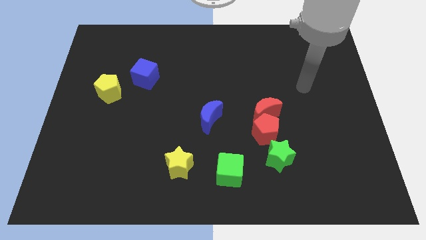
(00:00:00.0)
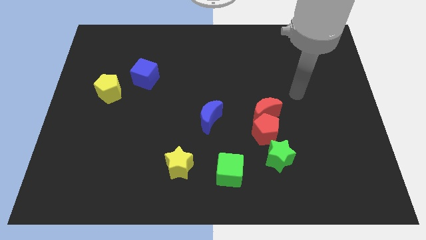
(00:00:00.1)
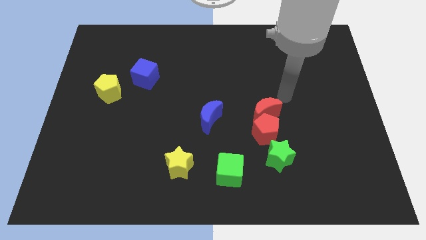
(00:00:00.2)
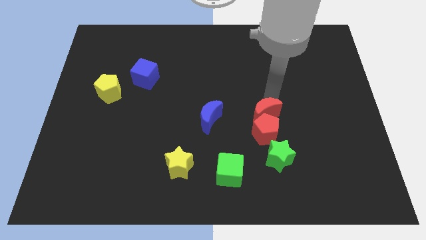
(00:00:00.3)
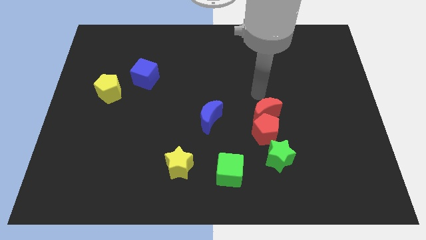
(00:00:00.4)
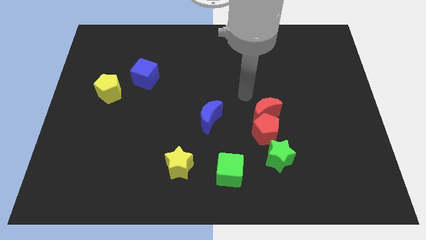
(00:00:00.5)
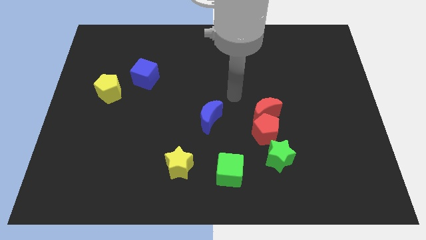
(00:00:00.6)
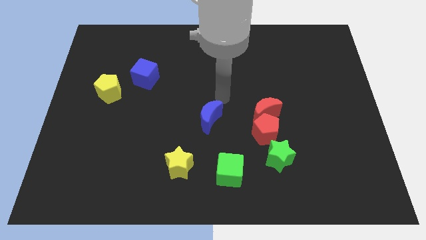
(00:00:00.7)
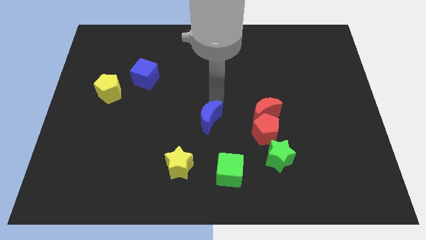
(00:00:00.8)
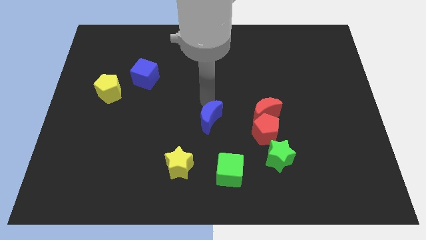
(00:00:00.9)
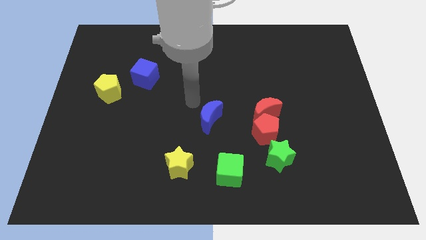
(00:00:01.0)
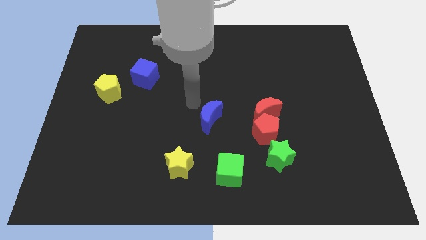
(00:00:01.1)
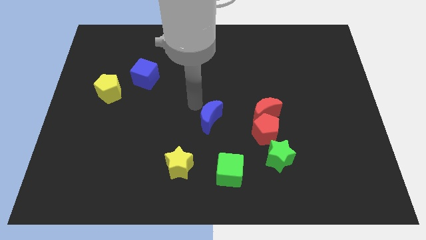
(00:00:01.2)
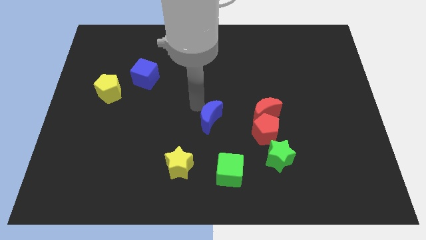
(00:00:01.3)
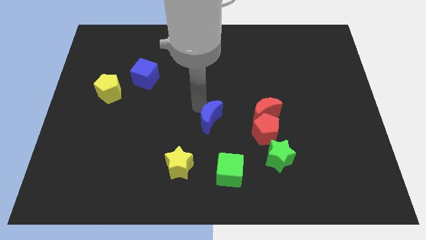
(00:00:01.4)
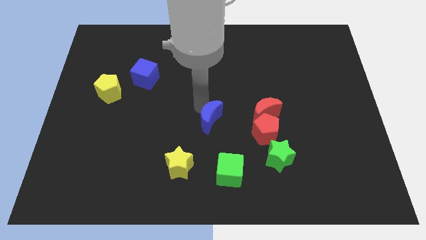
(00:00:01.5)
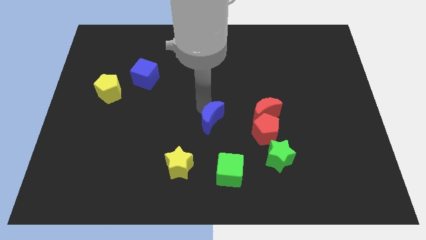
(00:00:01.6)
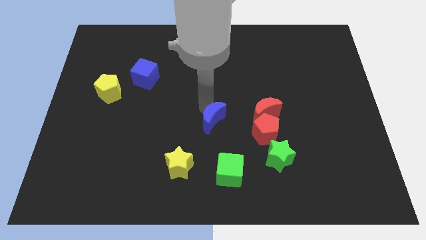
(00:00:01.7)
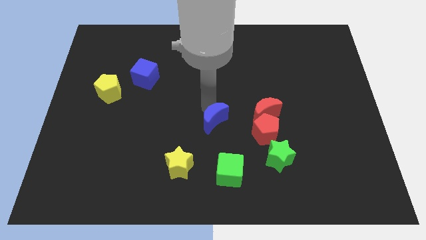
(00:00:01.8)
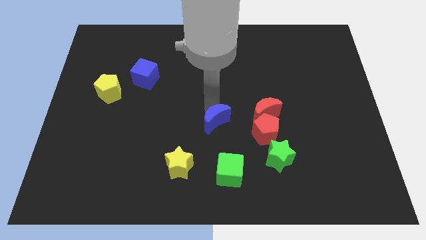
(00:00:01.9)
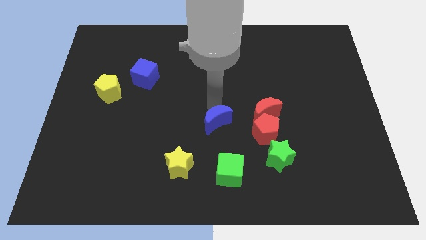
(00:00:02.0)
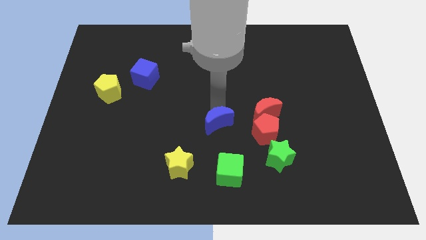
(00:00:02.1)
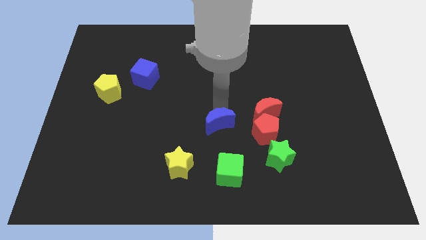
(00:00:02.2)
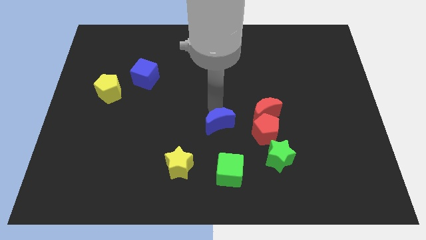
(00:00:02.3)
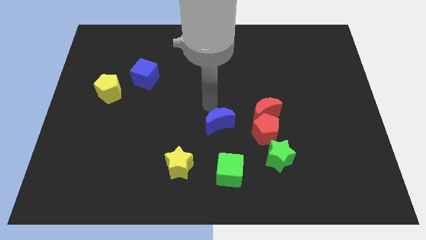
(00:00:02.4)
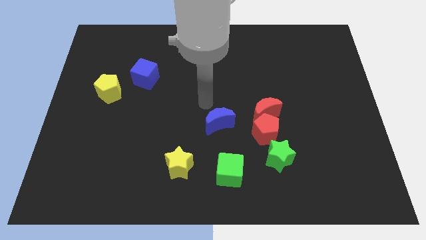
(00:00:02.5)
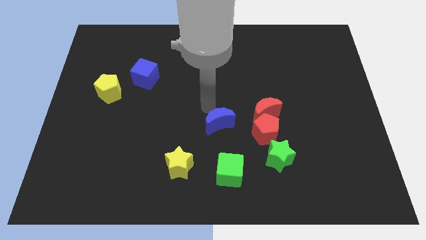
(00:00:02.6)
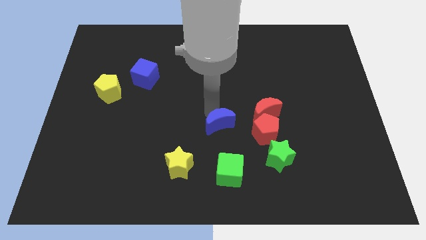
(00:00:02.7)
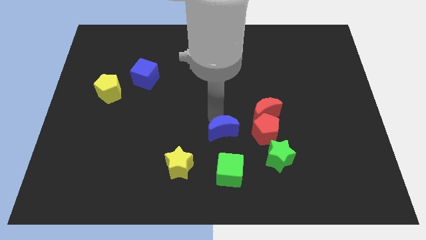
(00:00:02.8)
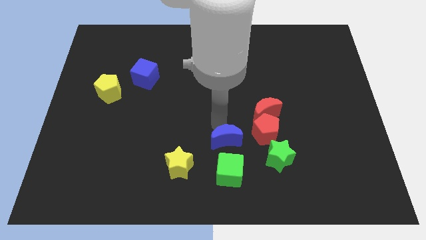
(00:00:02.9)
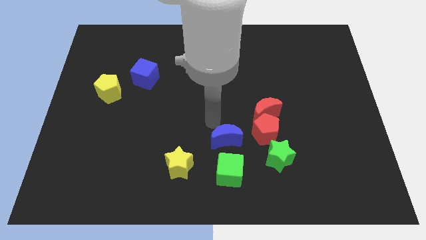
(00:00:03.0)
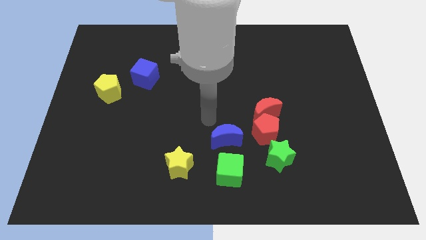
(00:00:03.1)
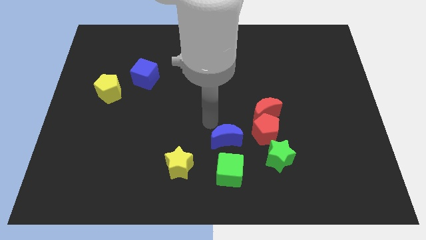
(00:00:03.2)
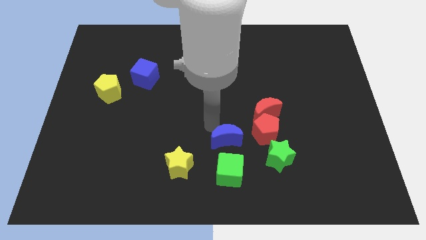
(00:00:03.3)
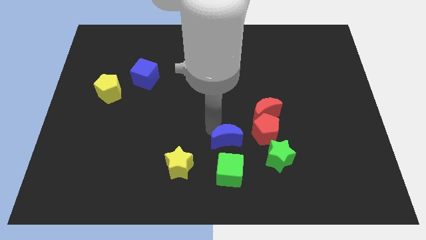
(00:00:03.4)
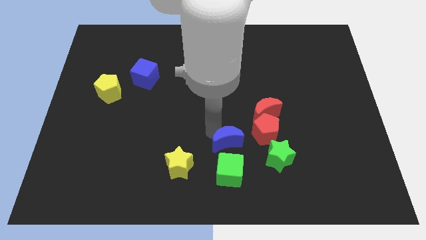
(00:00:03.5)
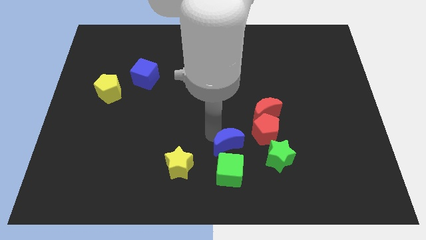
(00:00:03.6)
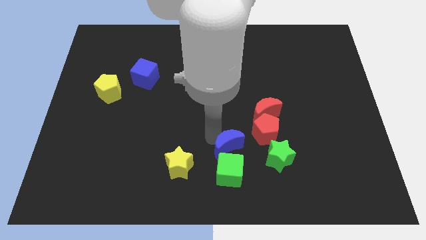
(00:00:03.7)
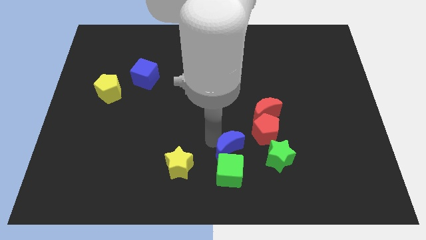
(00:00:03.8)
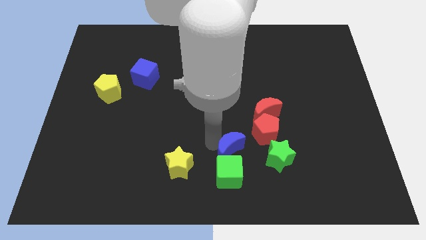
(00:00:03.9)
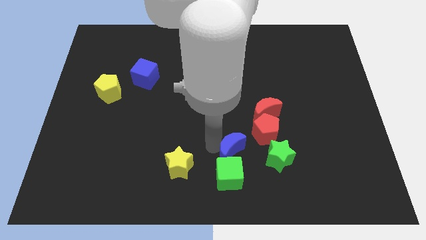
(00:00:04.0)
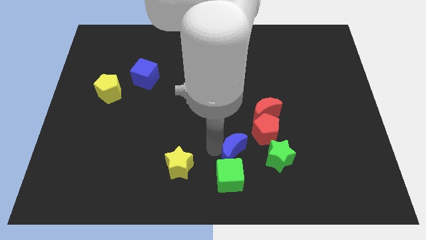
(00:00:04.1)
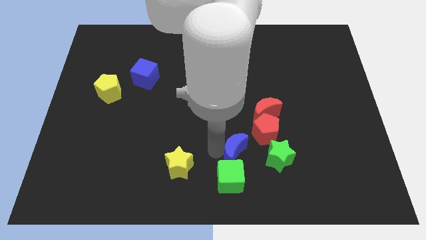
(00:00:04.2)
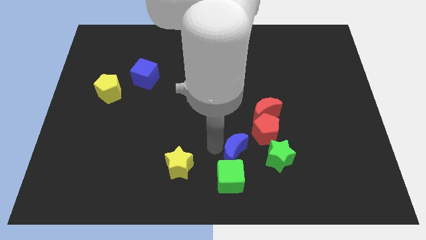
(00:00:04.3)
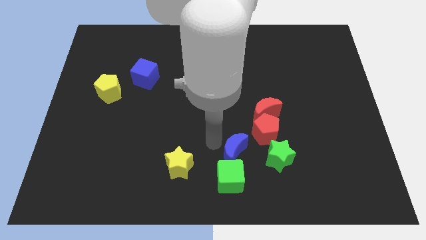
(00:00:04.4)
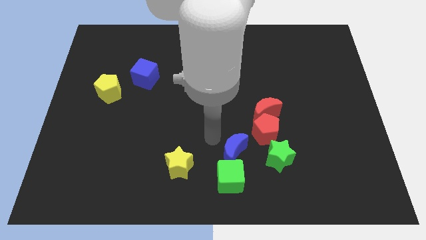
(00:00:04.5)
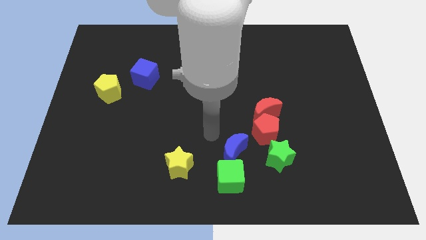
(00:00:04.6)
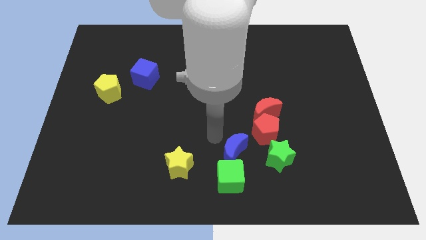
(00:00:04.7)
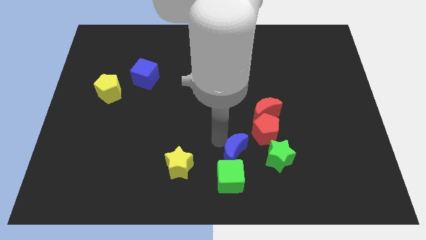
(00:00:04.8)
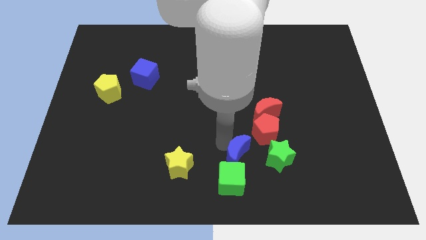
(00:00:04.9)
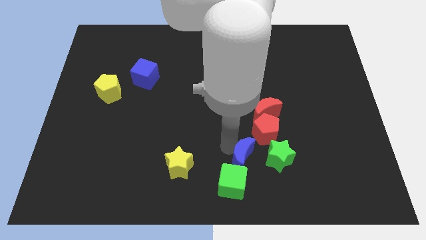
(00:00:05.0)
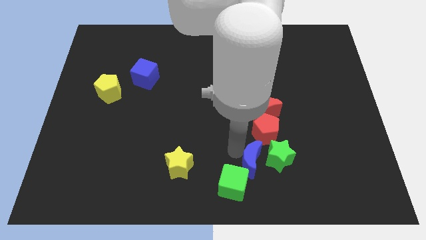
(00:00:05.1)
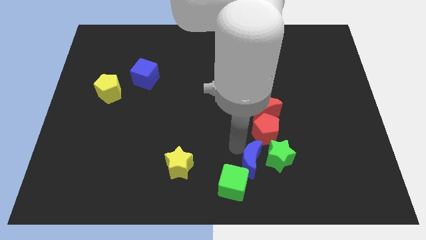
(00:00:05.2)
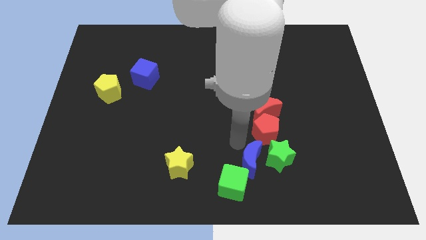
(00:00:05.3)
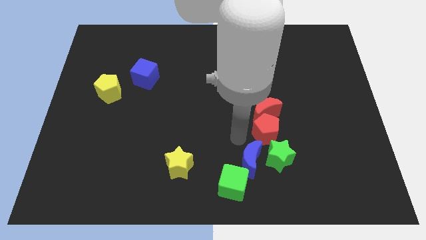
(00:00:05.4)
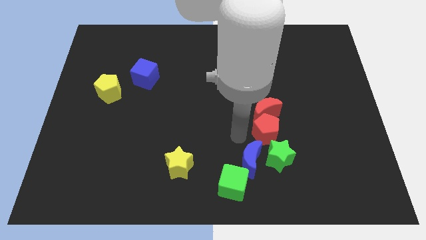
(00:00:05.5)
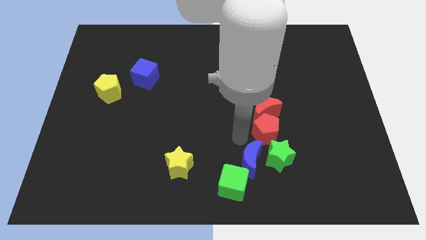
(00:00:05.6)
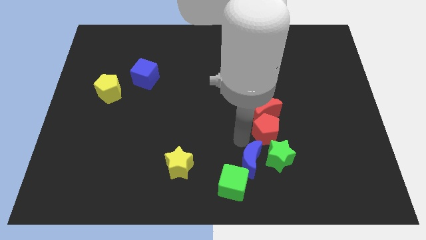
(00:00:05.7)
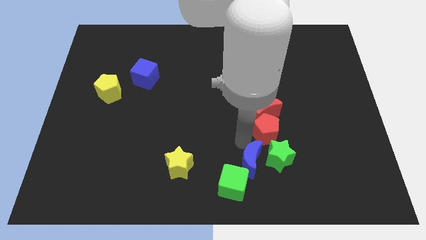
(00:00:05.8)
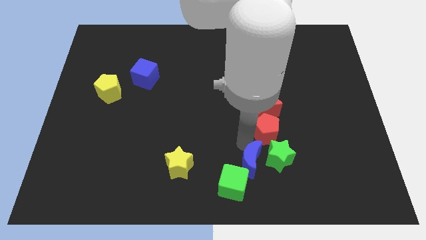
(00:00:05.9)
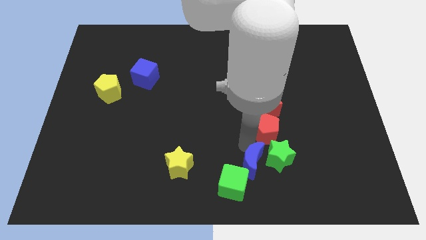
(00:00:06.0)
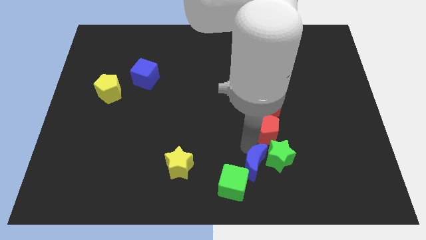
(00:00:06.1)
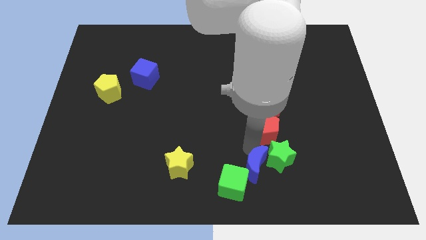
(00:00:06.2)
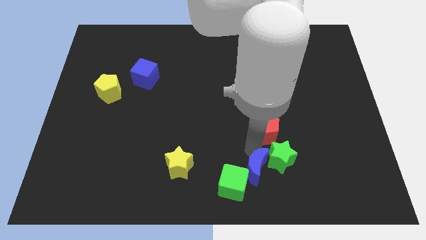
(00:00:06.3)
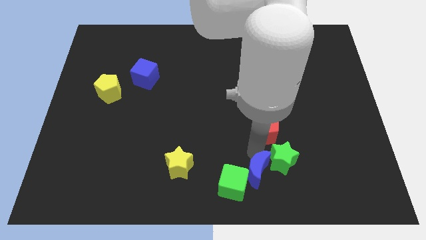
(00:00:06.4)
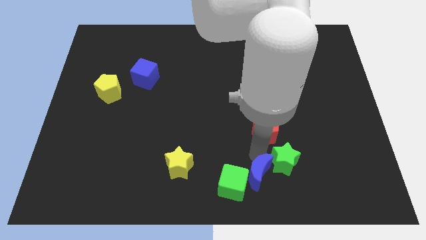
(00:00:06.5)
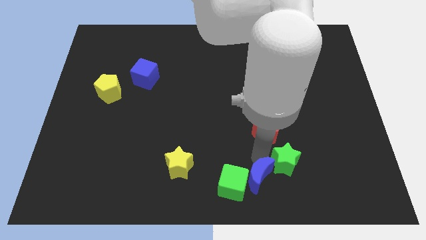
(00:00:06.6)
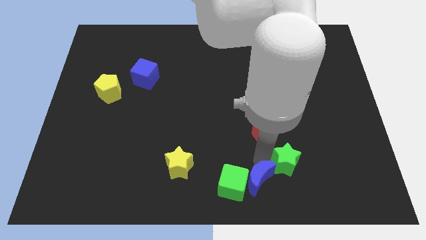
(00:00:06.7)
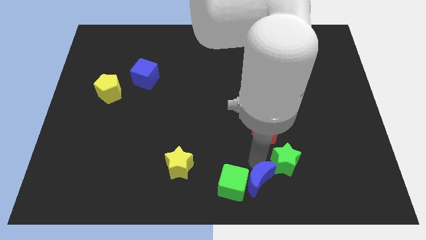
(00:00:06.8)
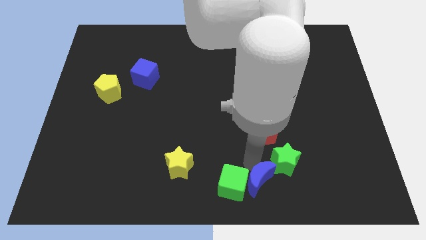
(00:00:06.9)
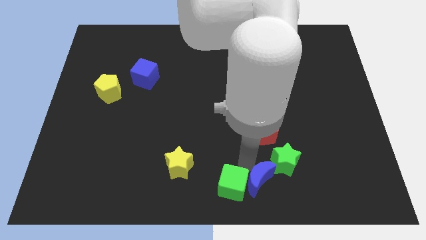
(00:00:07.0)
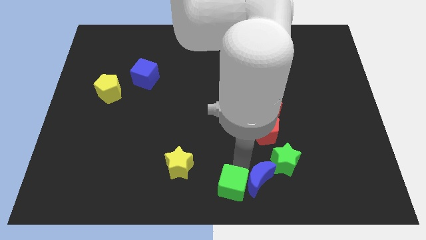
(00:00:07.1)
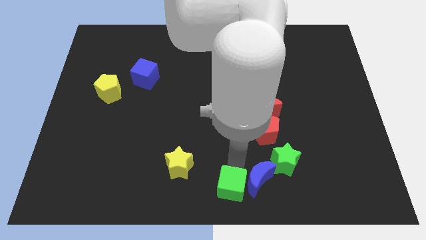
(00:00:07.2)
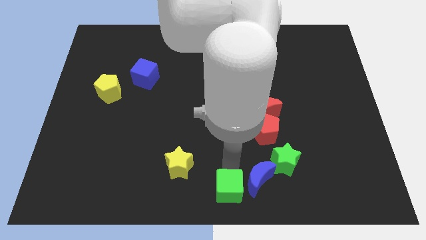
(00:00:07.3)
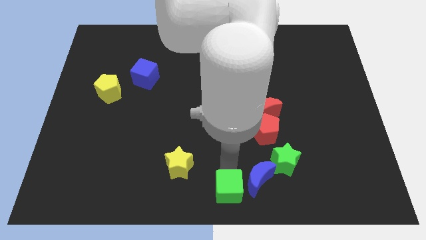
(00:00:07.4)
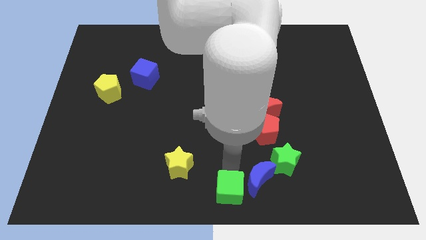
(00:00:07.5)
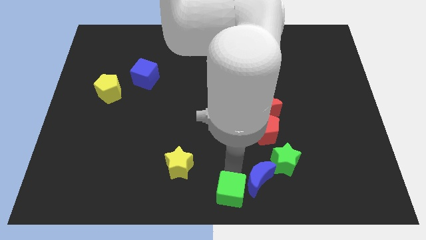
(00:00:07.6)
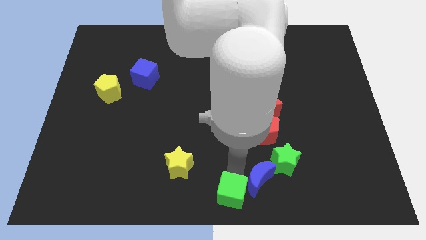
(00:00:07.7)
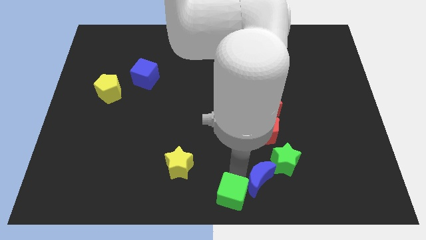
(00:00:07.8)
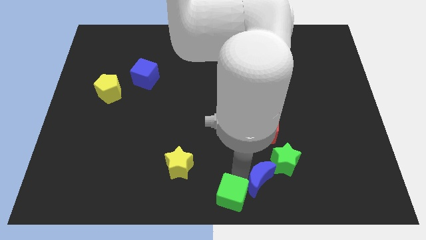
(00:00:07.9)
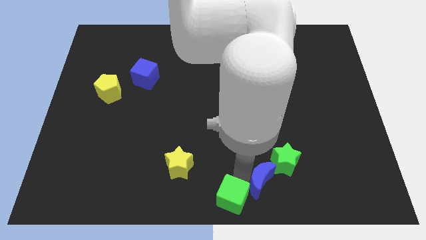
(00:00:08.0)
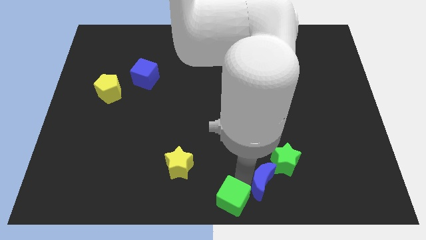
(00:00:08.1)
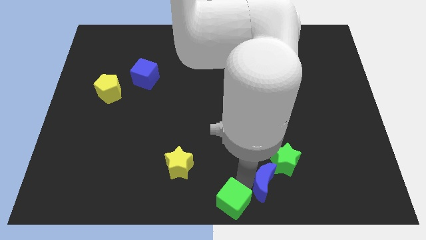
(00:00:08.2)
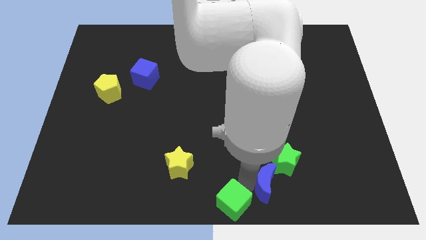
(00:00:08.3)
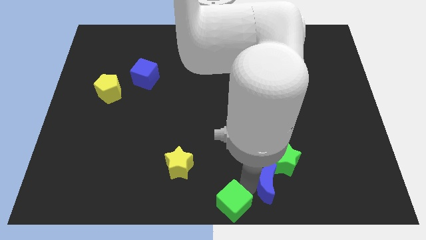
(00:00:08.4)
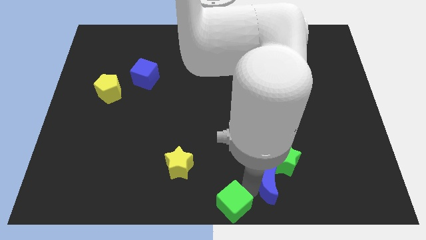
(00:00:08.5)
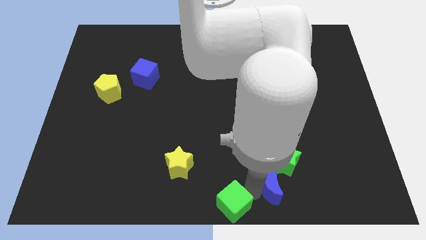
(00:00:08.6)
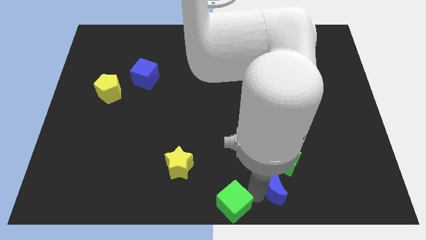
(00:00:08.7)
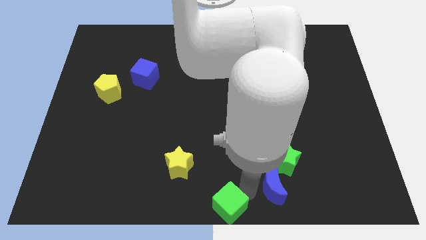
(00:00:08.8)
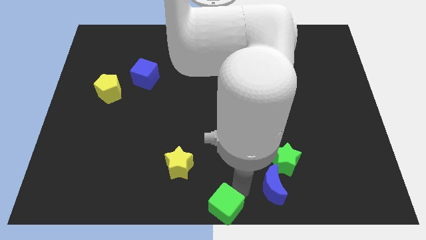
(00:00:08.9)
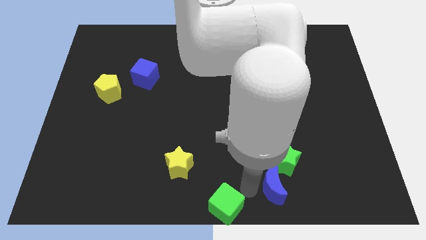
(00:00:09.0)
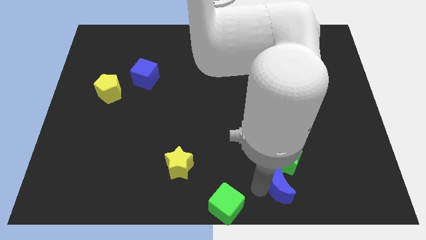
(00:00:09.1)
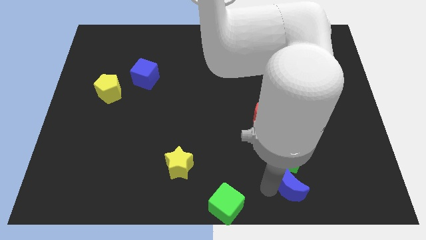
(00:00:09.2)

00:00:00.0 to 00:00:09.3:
slide the blue moon to the bottom right of the green star
